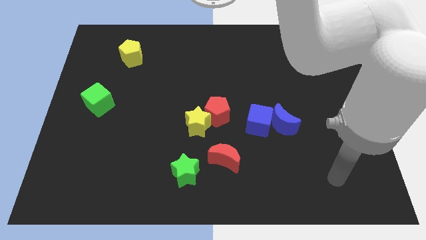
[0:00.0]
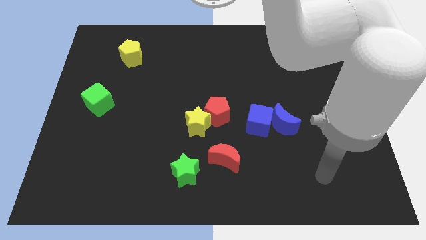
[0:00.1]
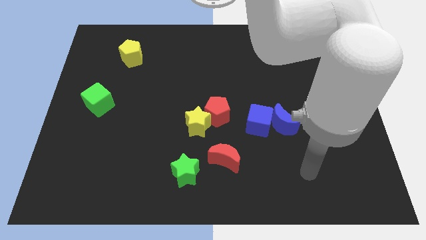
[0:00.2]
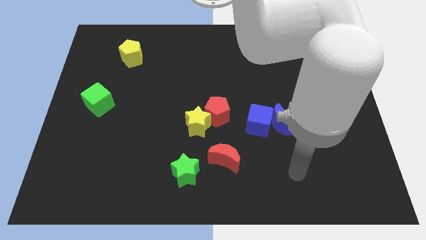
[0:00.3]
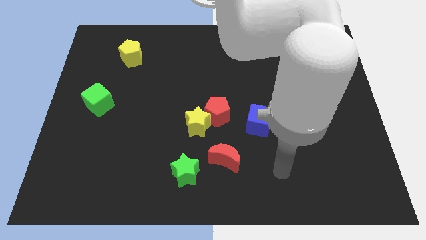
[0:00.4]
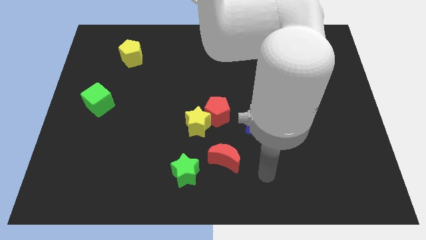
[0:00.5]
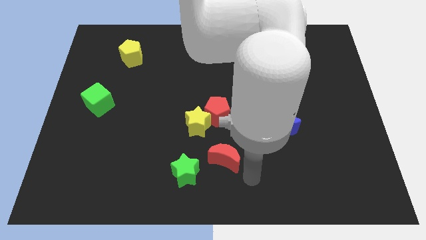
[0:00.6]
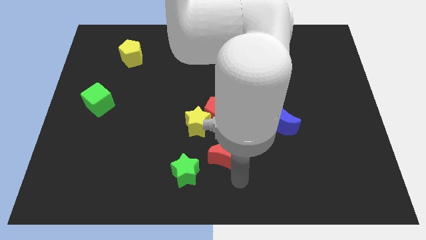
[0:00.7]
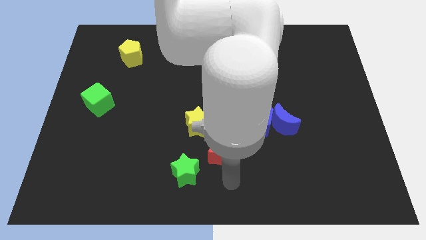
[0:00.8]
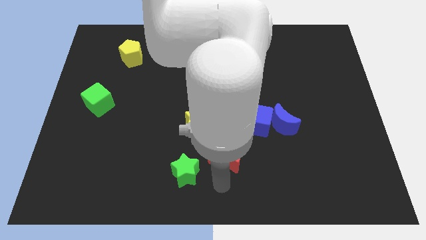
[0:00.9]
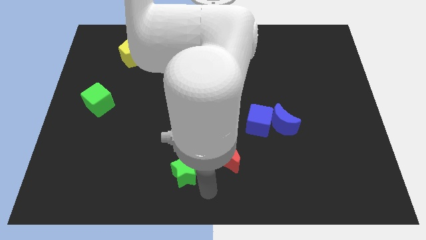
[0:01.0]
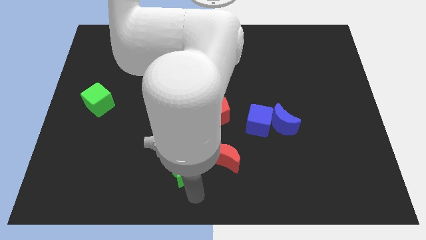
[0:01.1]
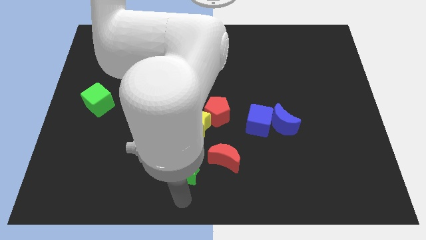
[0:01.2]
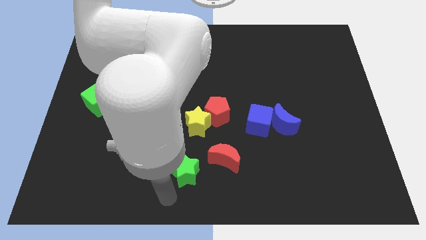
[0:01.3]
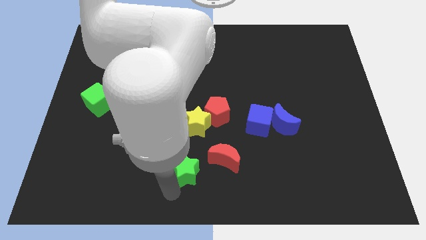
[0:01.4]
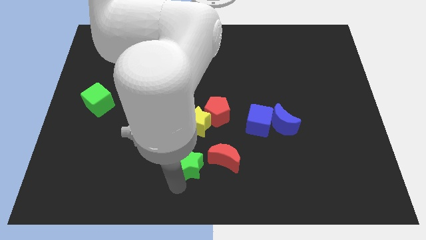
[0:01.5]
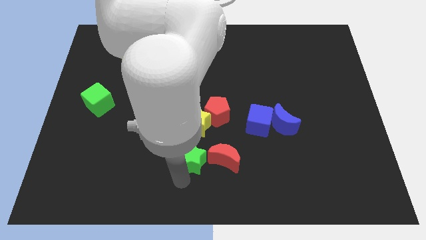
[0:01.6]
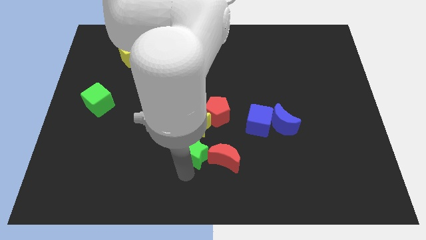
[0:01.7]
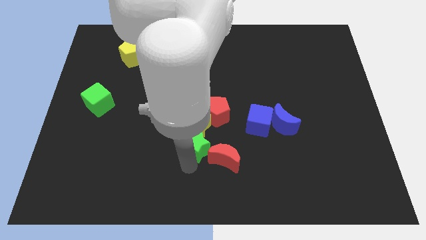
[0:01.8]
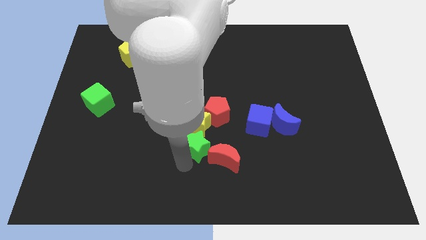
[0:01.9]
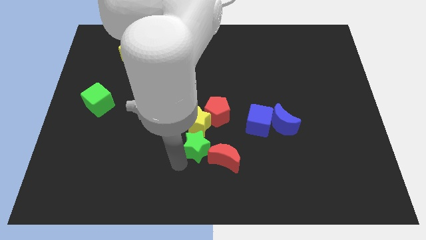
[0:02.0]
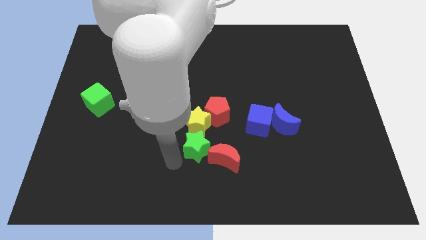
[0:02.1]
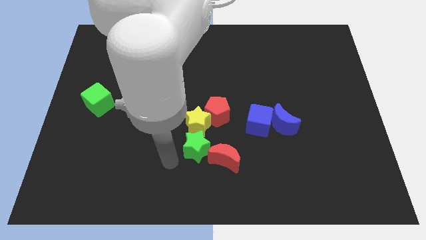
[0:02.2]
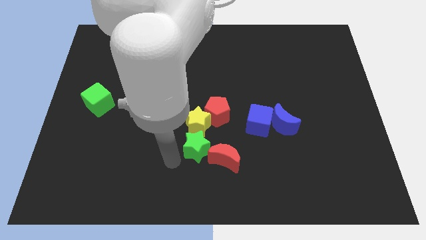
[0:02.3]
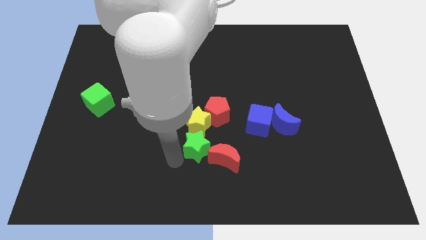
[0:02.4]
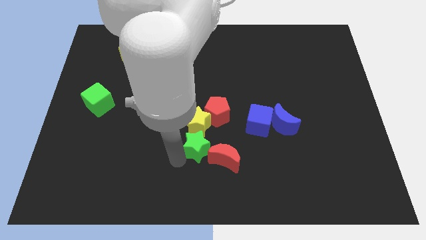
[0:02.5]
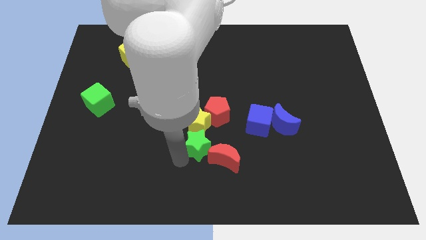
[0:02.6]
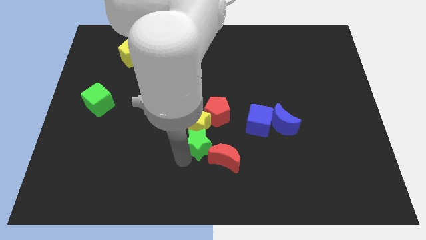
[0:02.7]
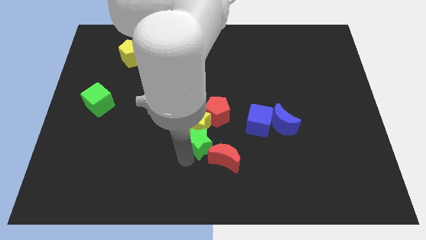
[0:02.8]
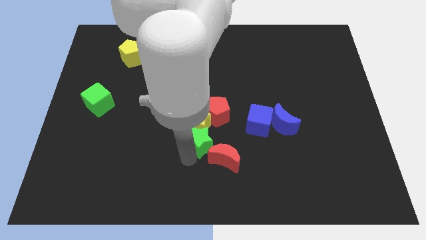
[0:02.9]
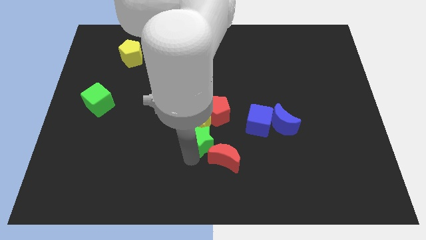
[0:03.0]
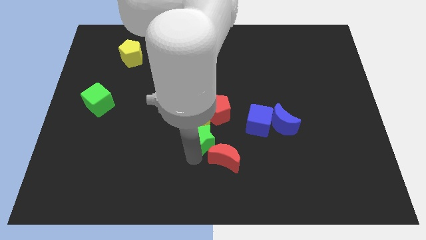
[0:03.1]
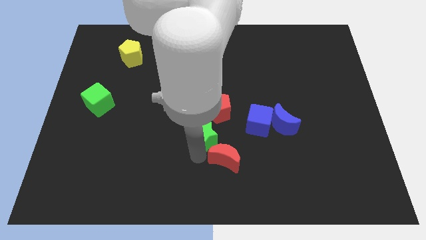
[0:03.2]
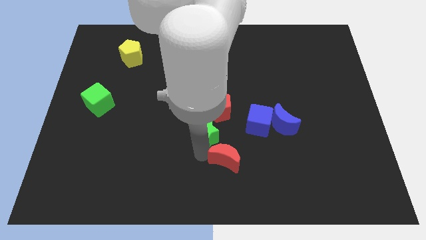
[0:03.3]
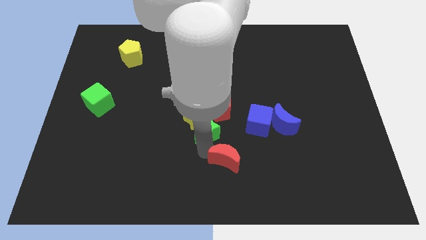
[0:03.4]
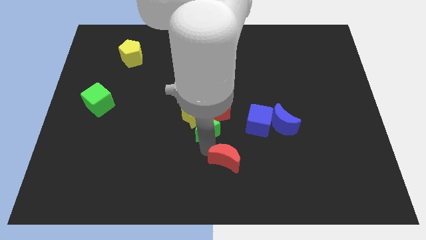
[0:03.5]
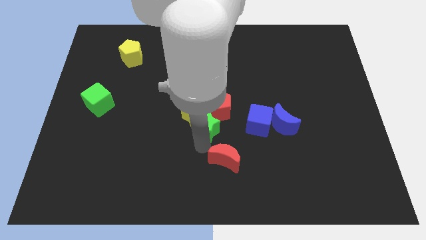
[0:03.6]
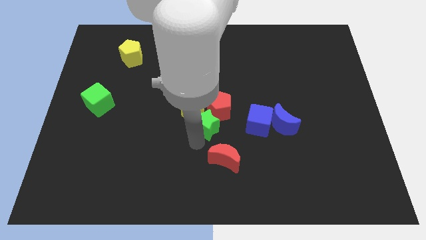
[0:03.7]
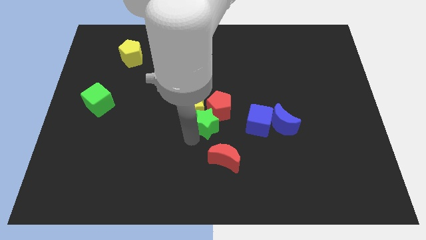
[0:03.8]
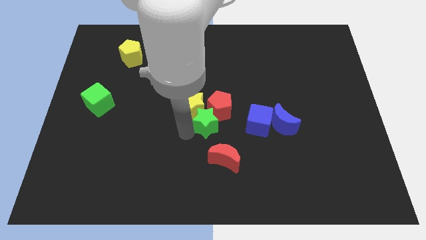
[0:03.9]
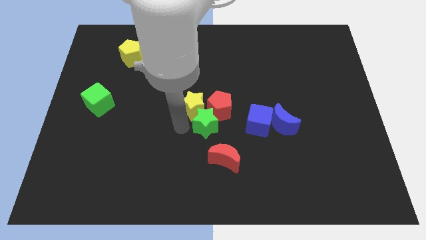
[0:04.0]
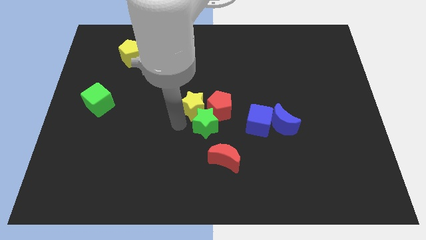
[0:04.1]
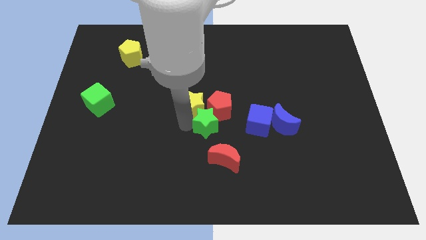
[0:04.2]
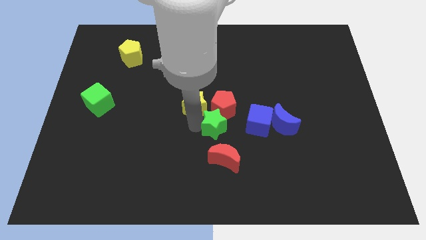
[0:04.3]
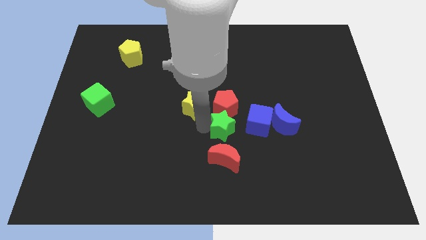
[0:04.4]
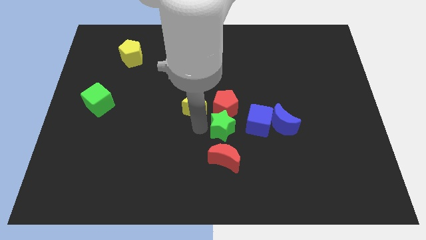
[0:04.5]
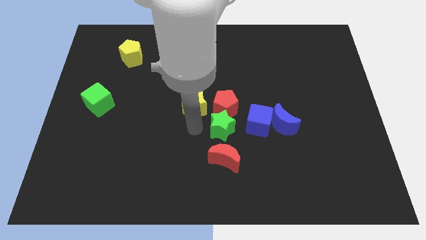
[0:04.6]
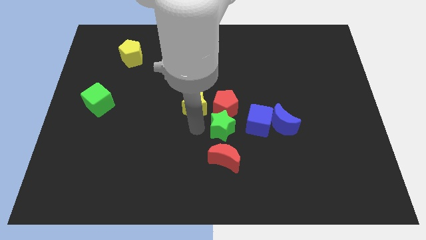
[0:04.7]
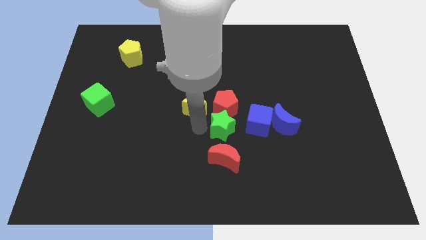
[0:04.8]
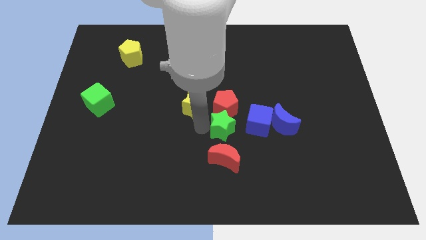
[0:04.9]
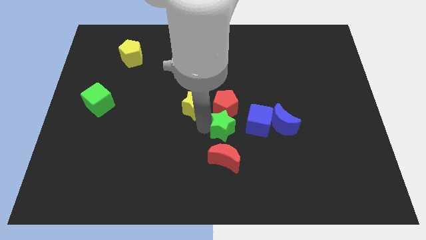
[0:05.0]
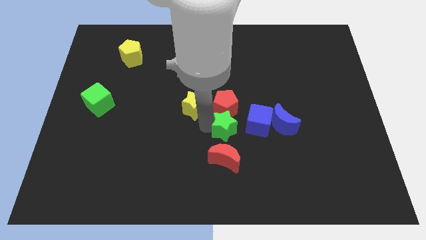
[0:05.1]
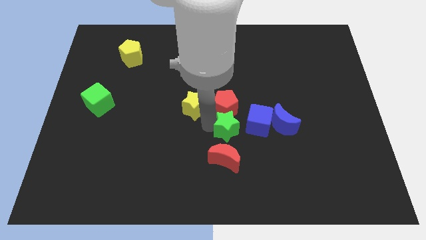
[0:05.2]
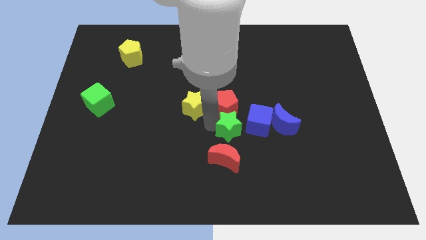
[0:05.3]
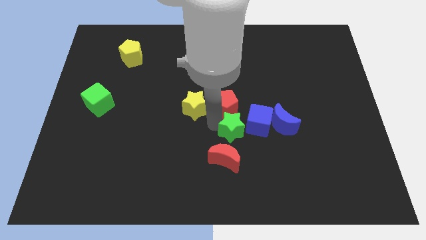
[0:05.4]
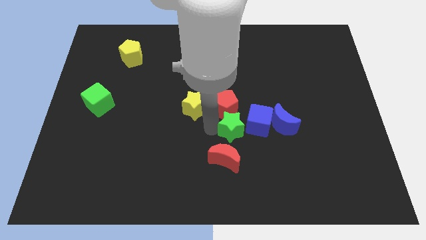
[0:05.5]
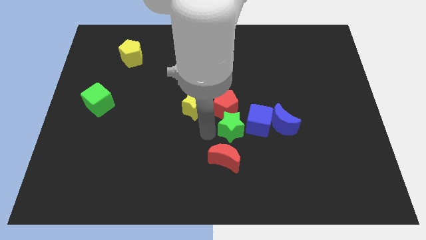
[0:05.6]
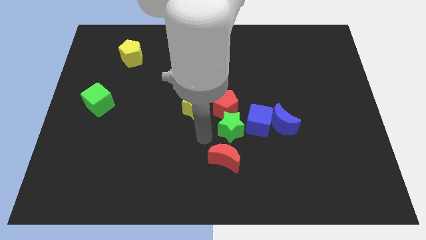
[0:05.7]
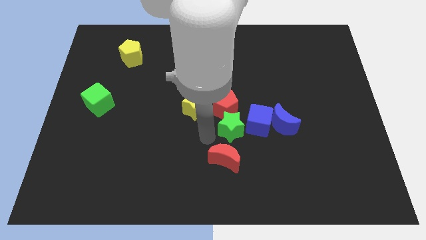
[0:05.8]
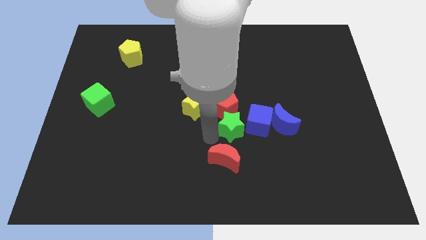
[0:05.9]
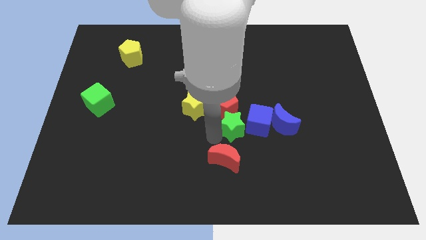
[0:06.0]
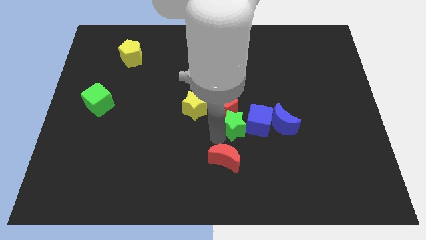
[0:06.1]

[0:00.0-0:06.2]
put the green star next to the blue cube

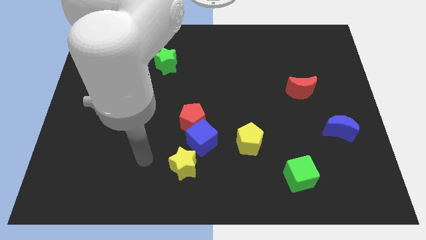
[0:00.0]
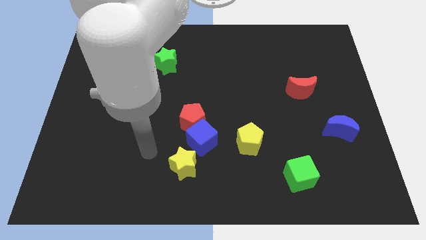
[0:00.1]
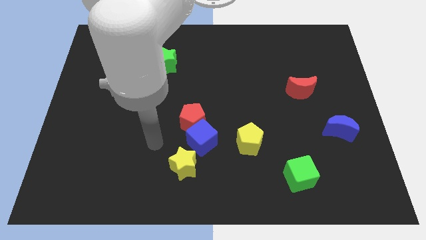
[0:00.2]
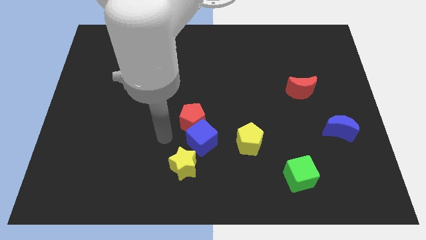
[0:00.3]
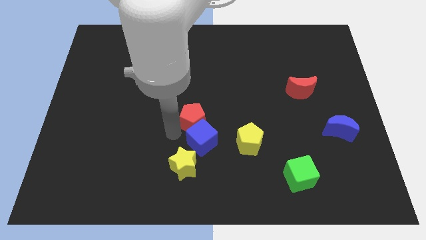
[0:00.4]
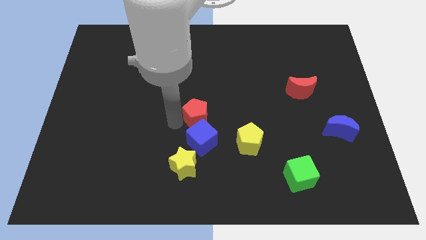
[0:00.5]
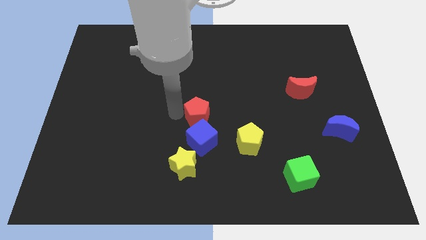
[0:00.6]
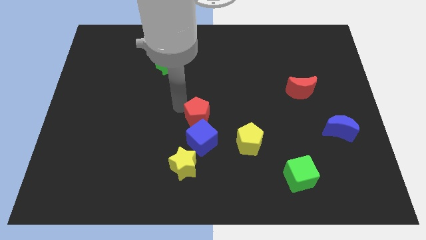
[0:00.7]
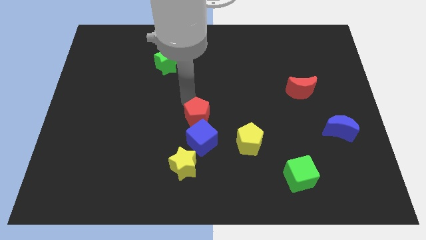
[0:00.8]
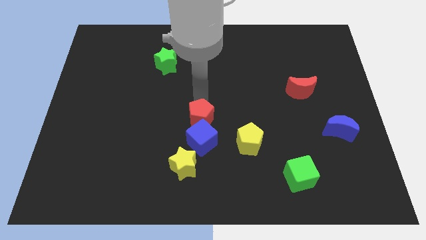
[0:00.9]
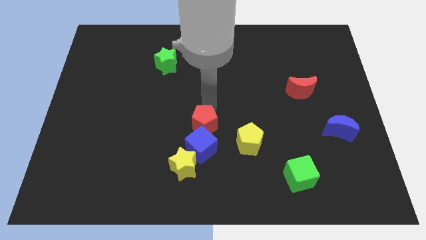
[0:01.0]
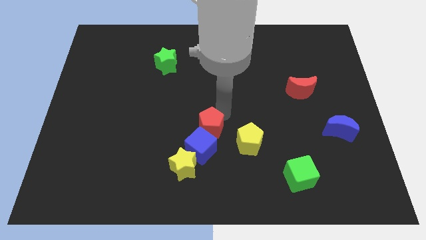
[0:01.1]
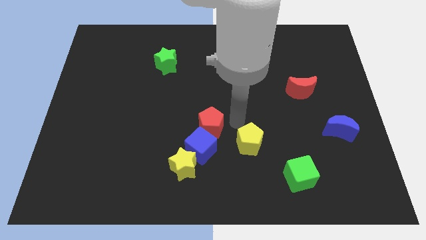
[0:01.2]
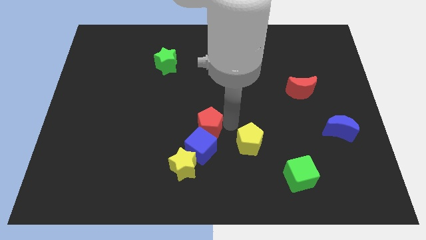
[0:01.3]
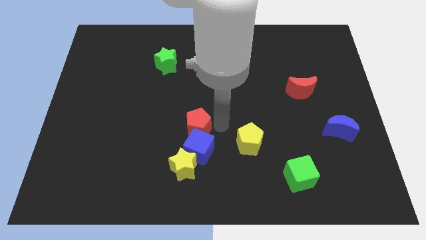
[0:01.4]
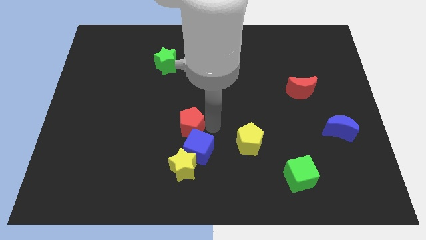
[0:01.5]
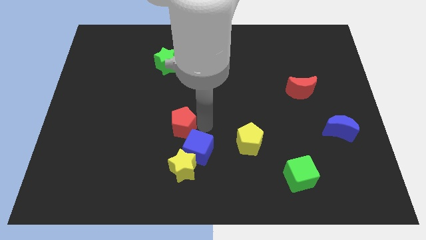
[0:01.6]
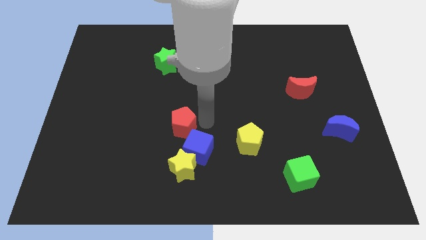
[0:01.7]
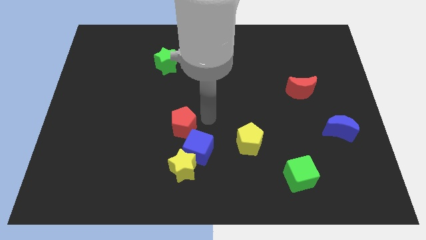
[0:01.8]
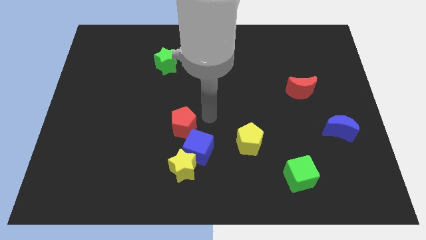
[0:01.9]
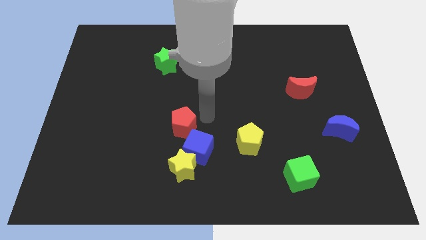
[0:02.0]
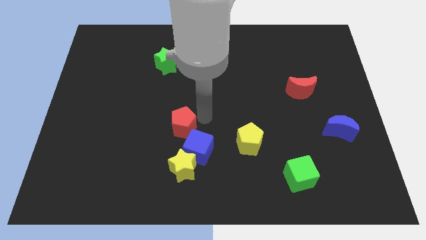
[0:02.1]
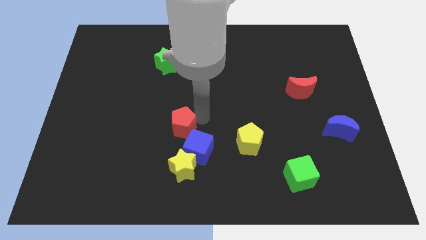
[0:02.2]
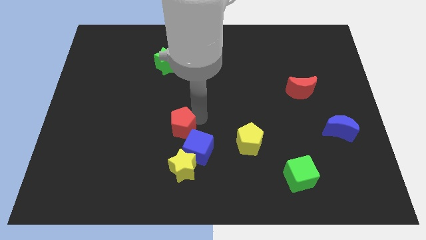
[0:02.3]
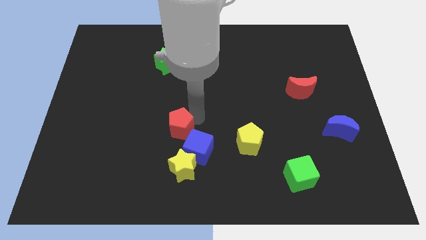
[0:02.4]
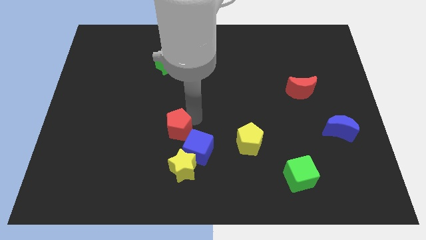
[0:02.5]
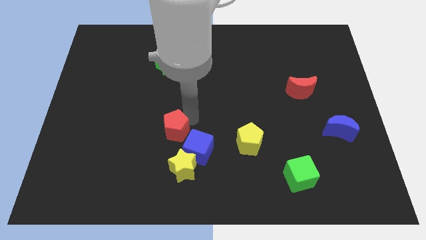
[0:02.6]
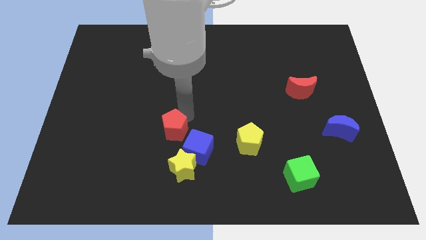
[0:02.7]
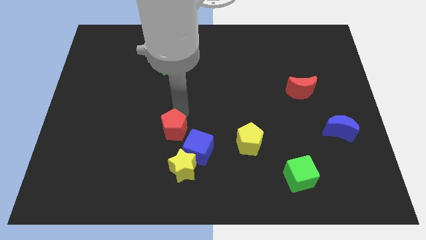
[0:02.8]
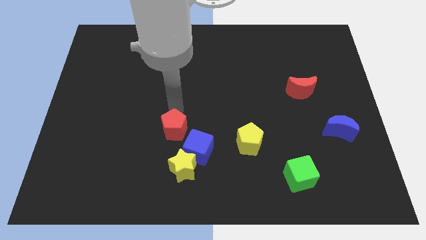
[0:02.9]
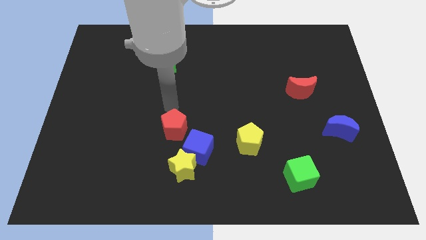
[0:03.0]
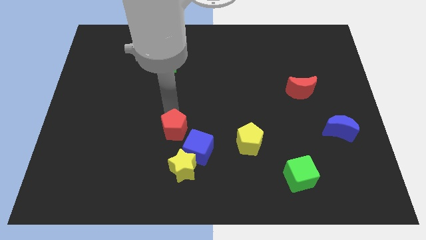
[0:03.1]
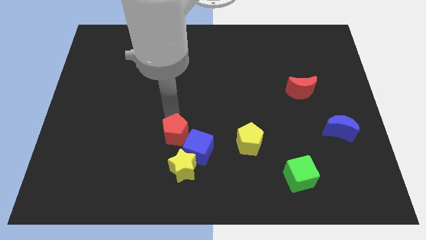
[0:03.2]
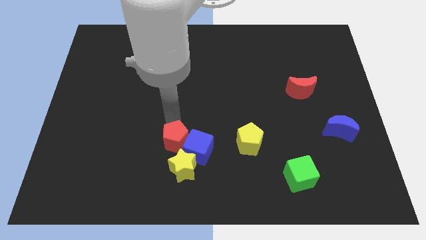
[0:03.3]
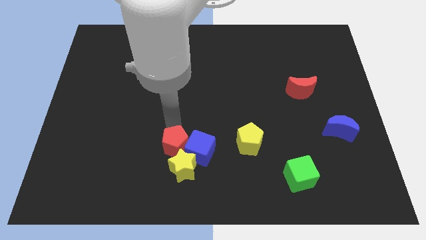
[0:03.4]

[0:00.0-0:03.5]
move the red pentagon to the yellow star
